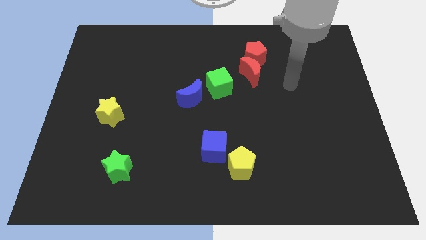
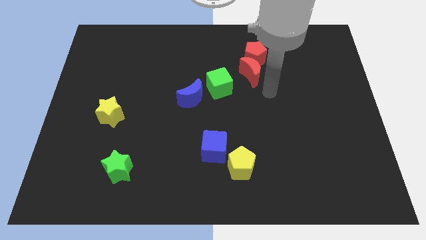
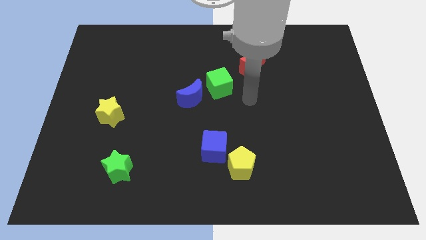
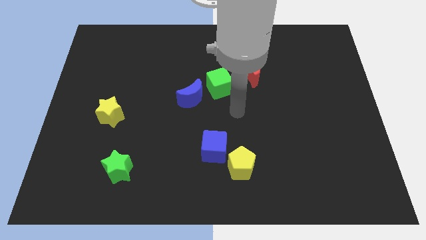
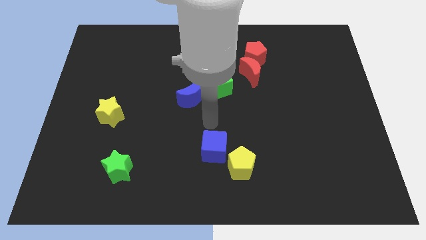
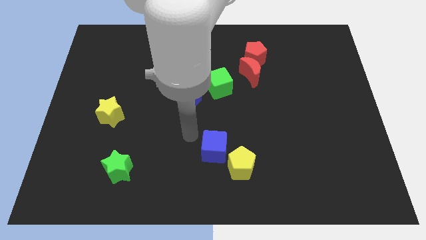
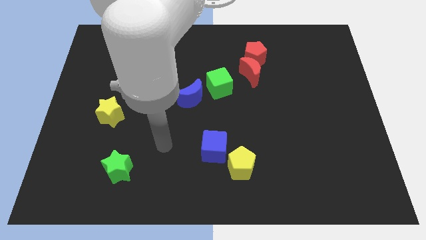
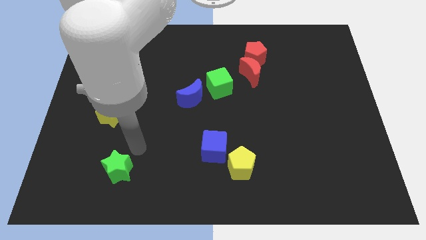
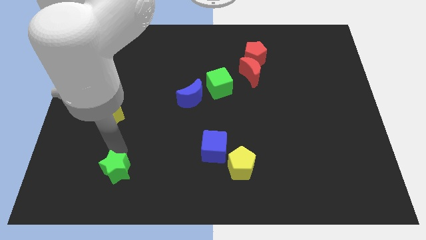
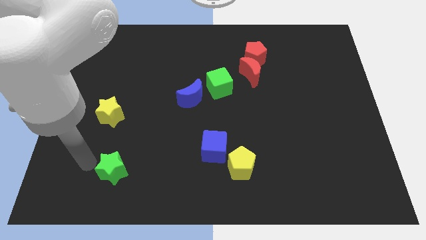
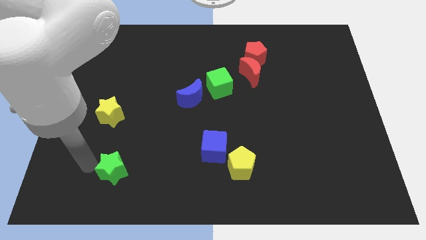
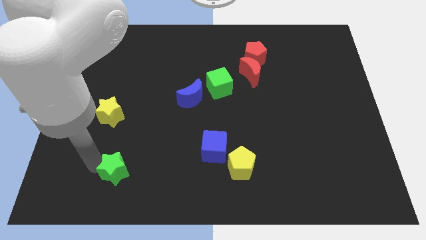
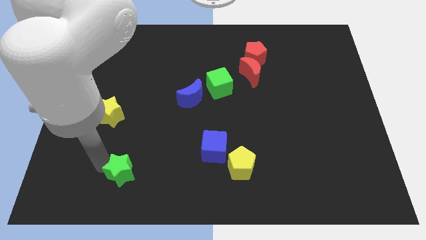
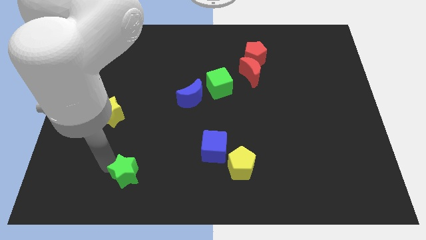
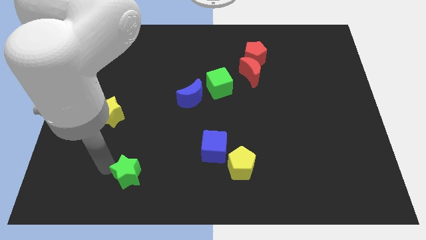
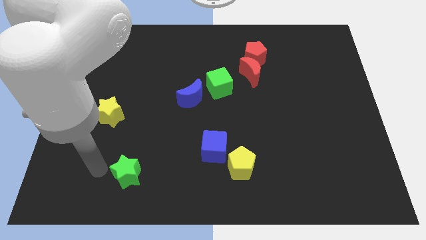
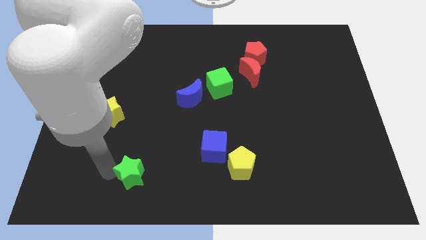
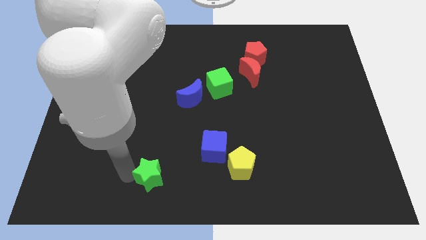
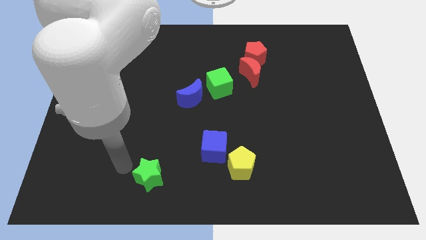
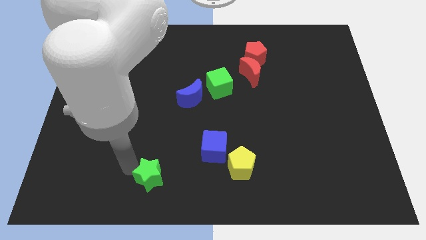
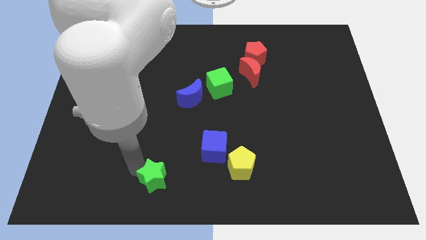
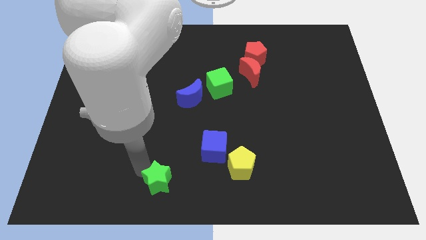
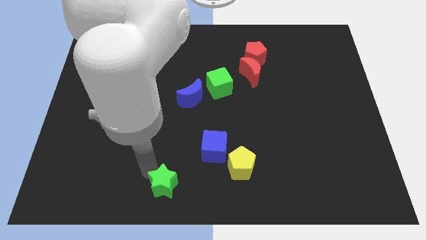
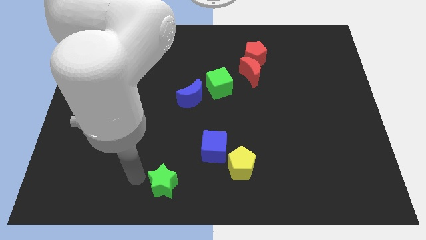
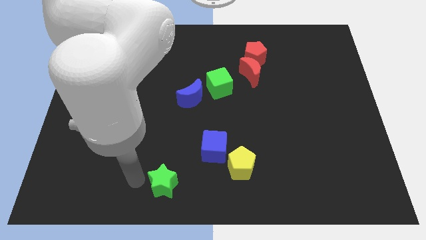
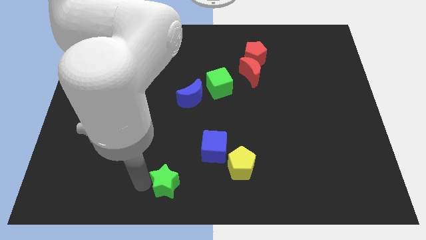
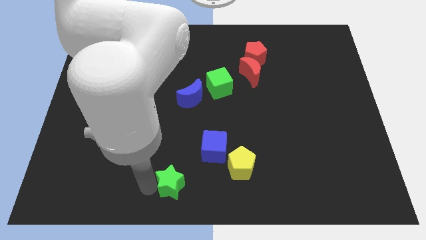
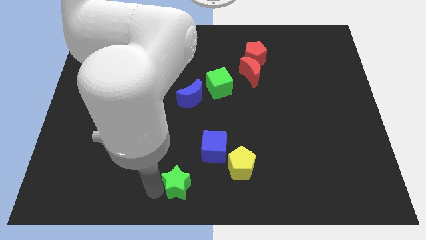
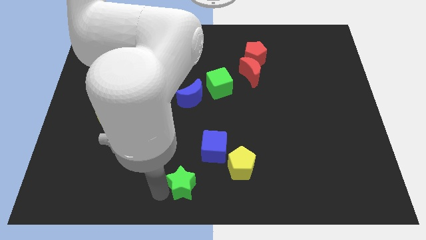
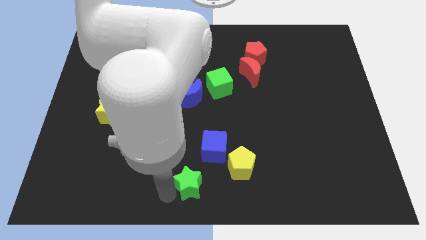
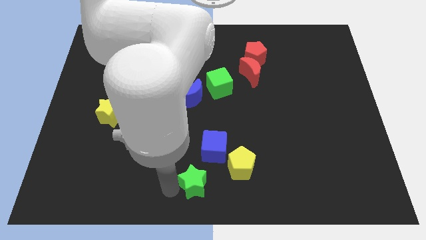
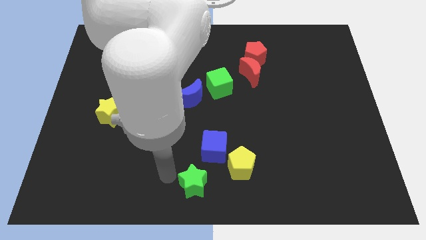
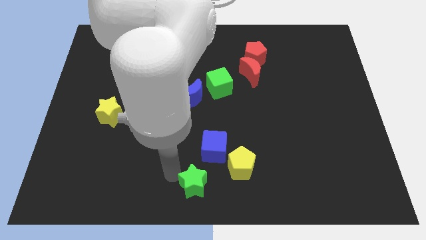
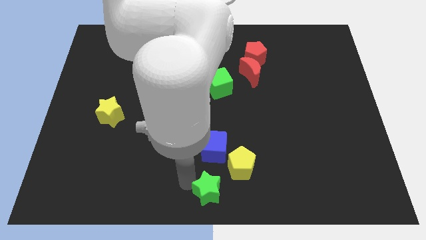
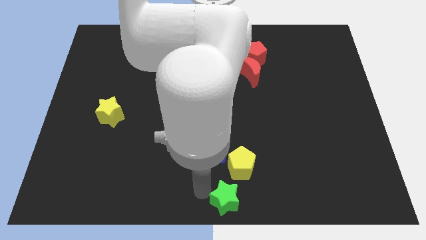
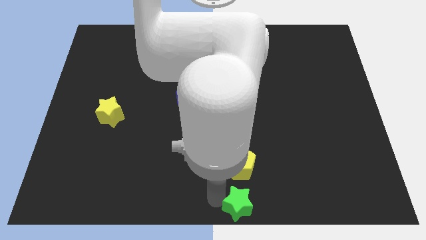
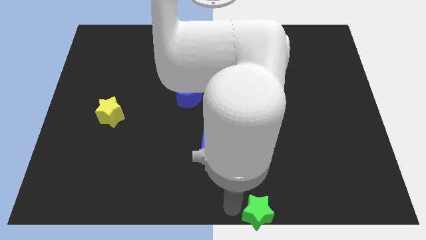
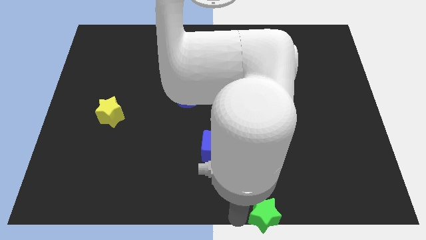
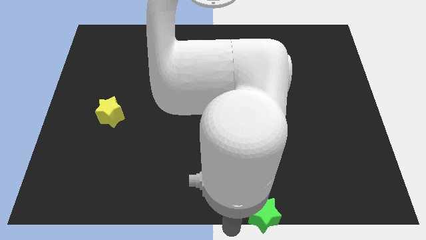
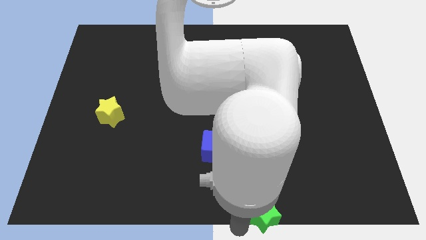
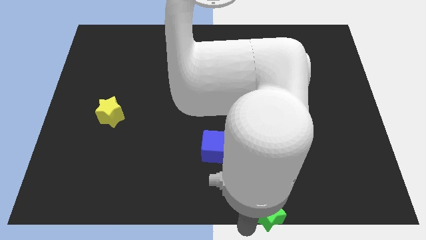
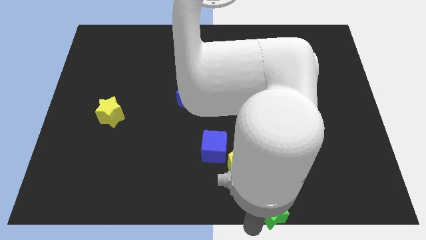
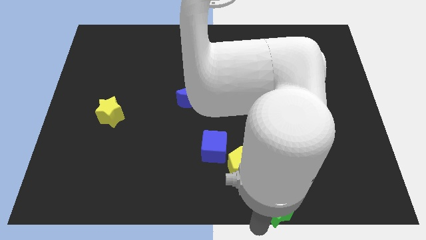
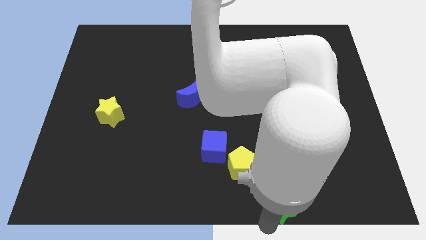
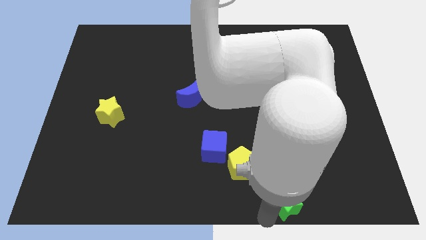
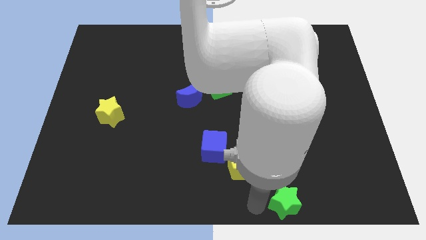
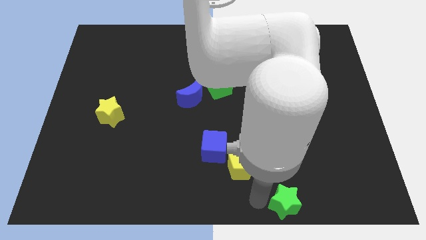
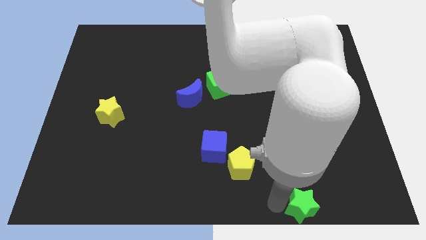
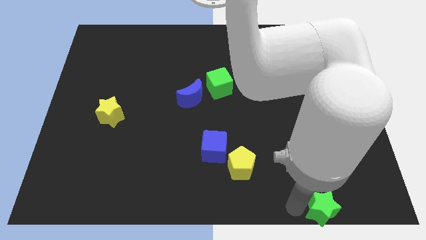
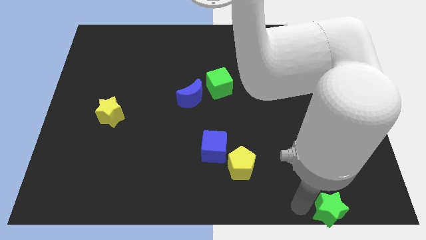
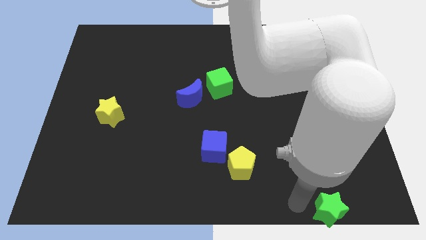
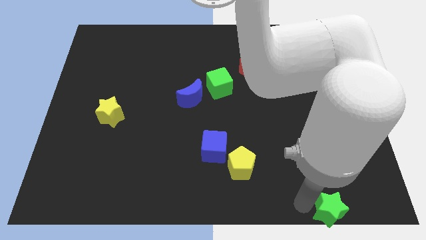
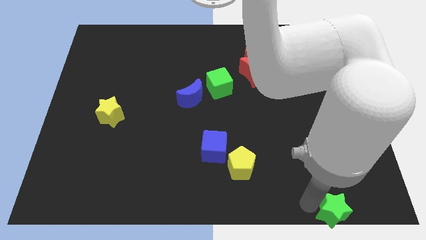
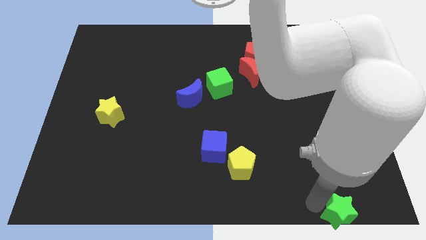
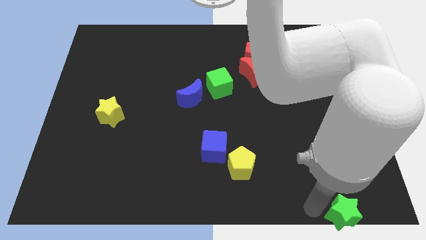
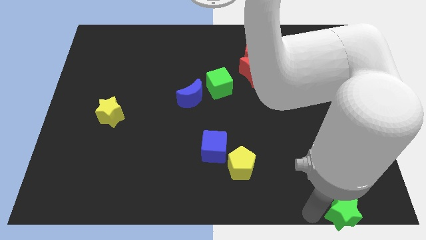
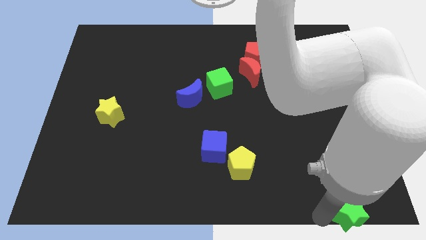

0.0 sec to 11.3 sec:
slide the green star to the bottom right of the board

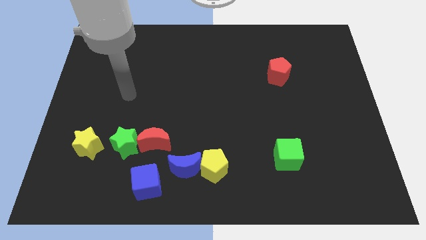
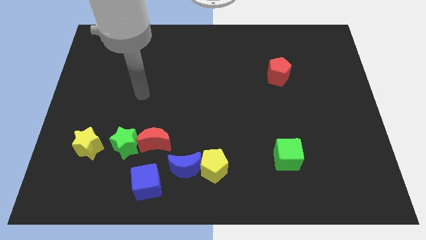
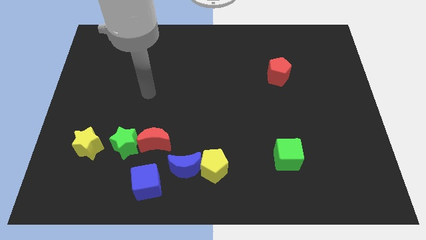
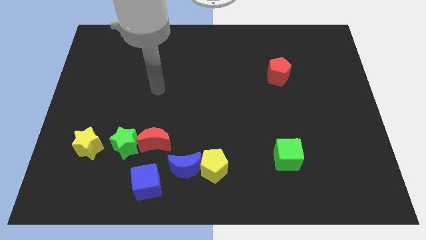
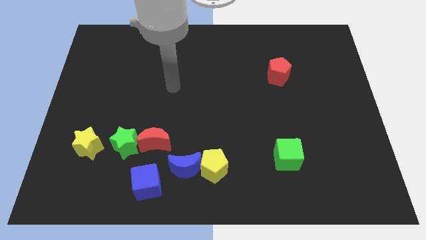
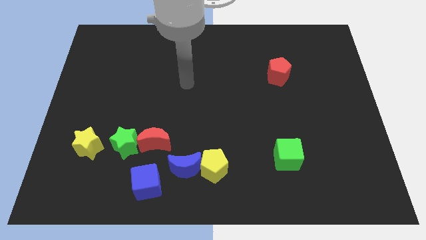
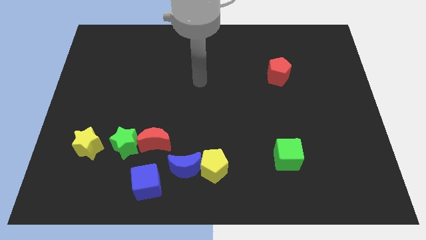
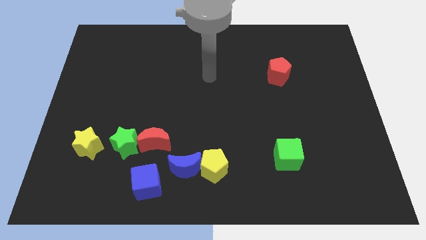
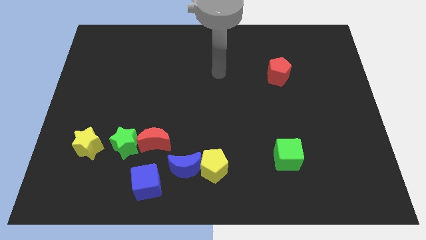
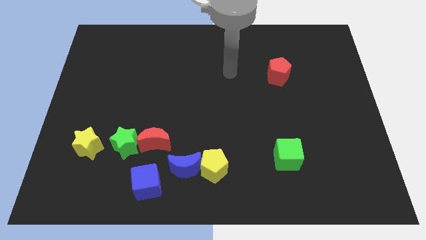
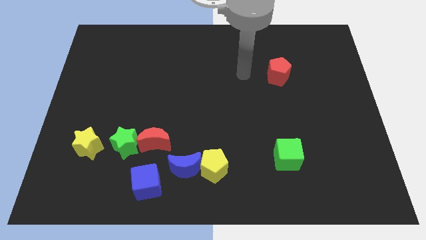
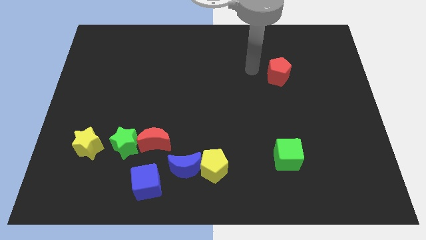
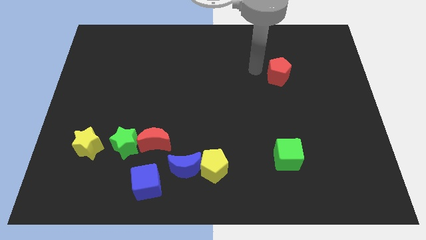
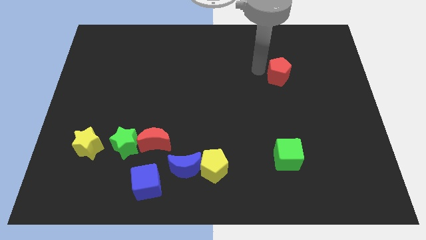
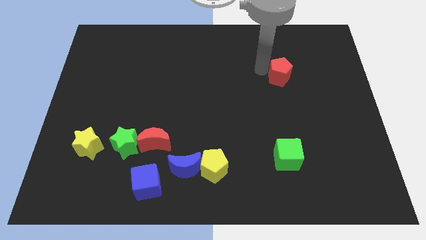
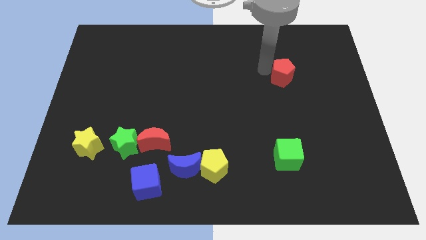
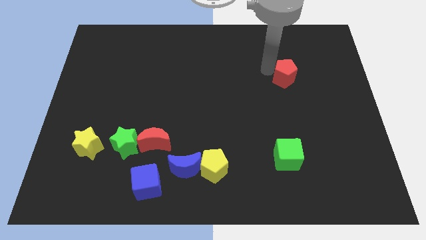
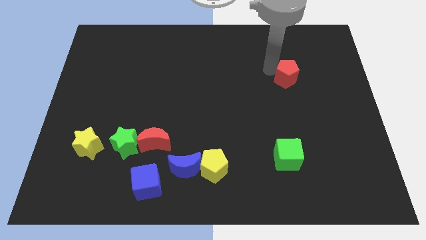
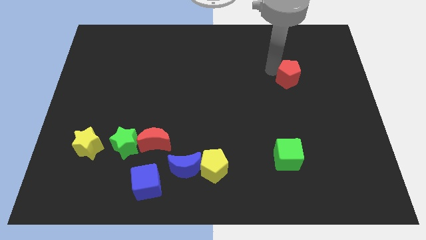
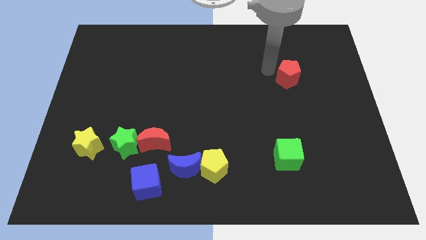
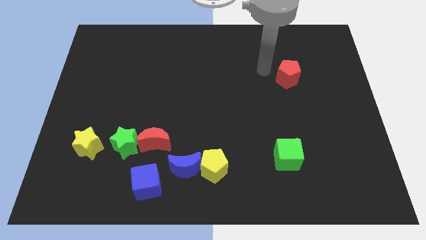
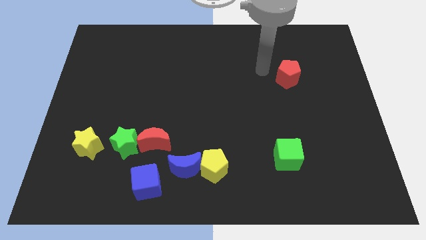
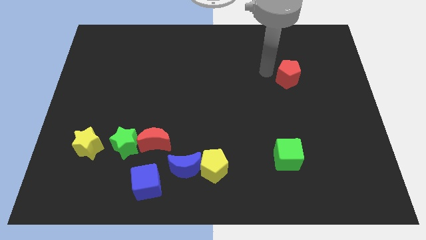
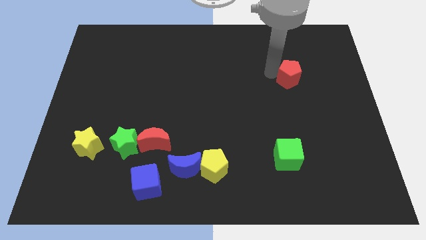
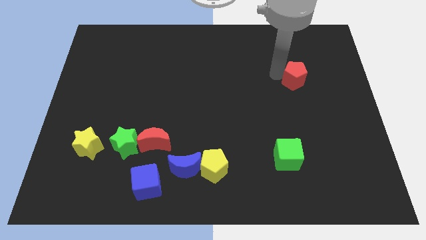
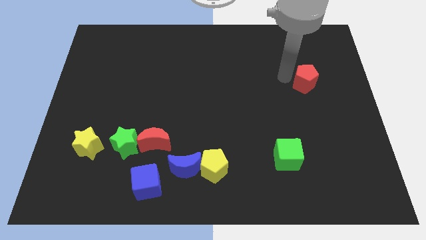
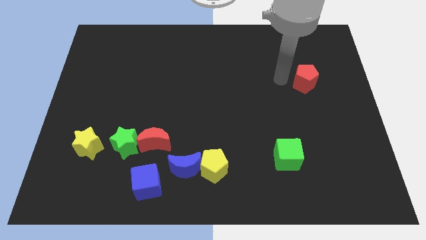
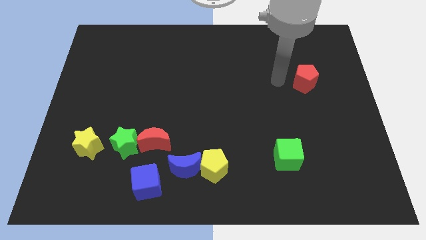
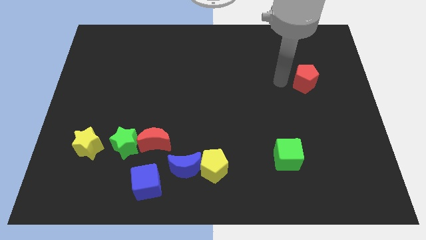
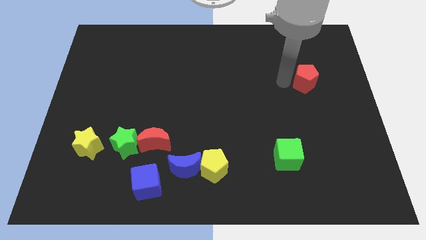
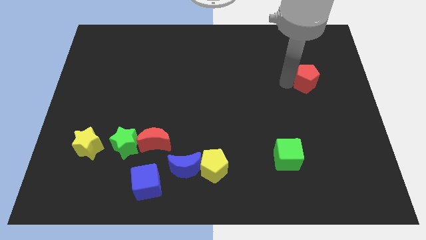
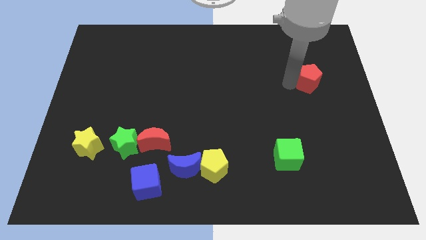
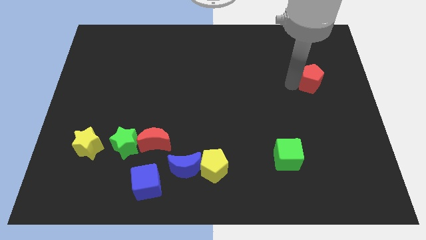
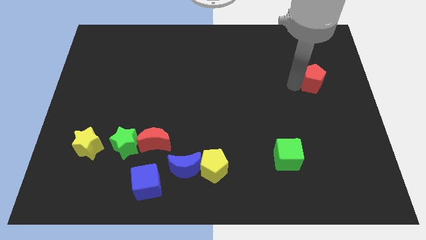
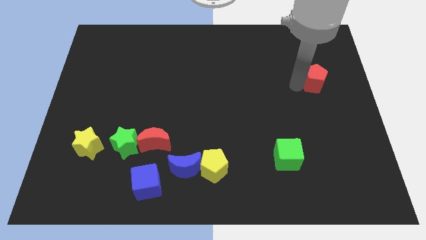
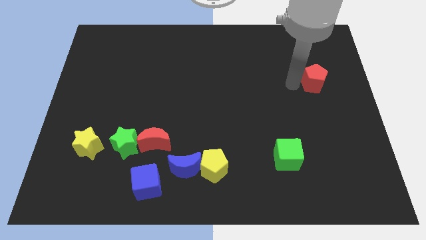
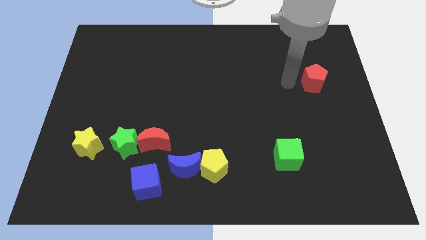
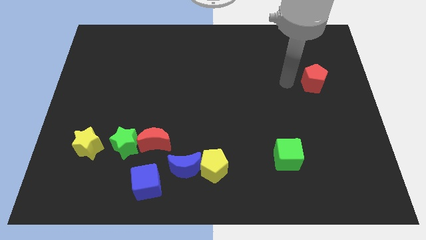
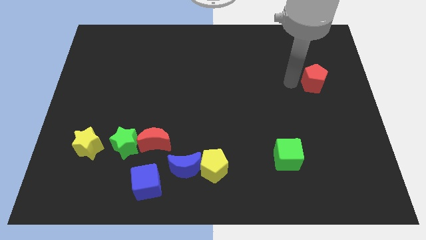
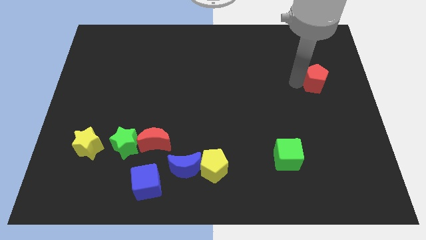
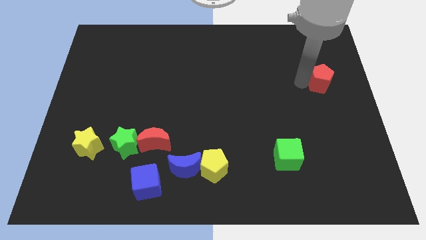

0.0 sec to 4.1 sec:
slide the red pentagon to the center right
